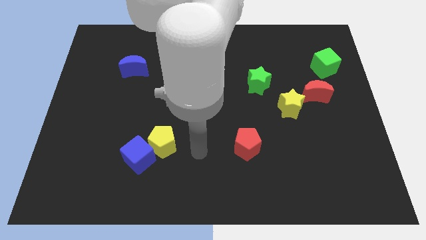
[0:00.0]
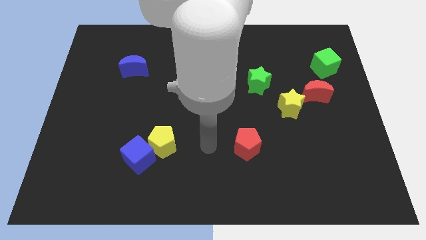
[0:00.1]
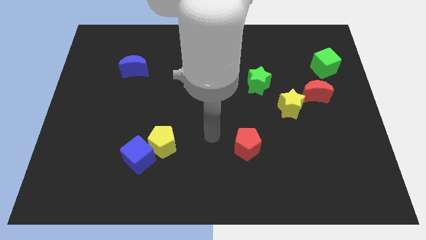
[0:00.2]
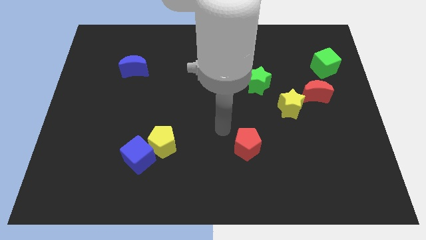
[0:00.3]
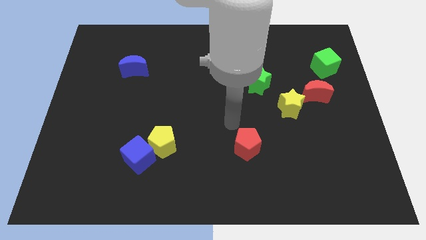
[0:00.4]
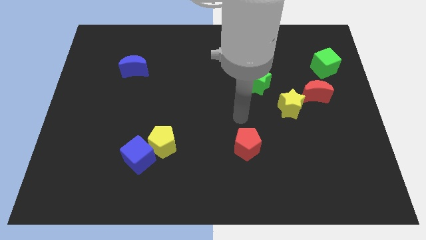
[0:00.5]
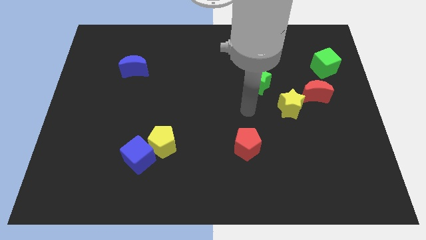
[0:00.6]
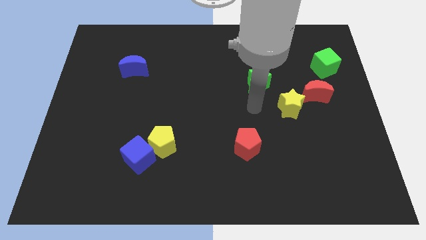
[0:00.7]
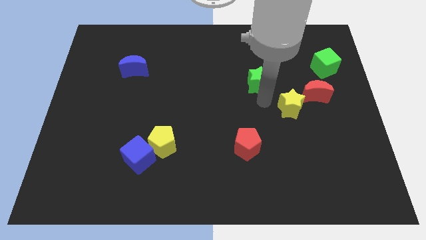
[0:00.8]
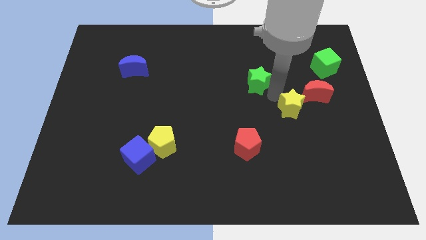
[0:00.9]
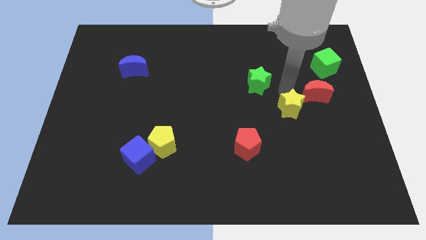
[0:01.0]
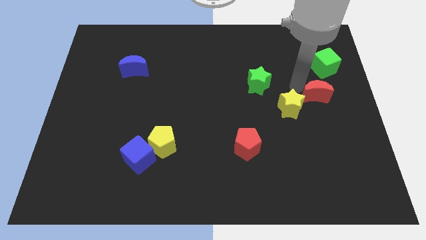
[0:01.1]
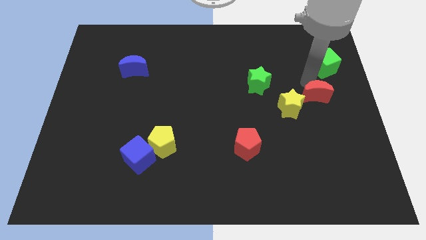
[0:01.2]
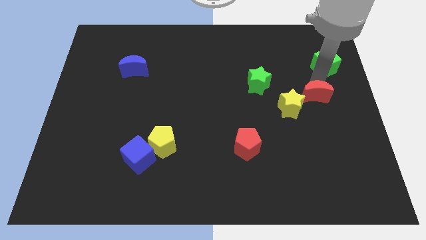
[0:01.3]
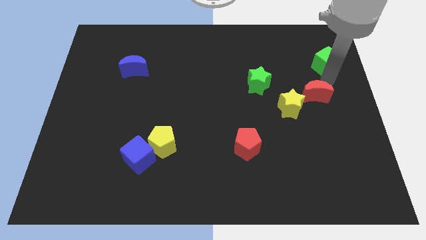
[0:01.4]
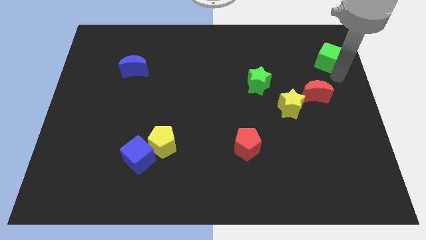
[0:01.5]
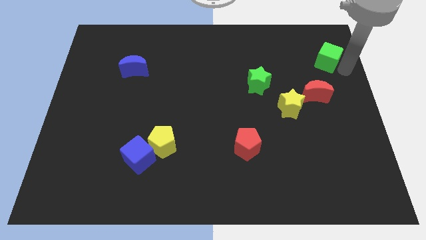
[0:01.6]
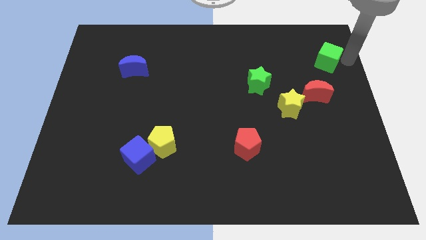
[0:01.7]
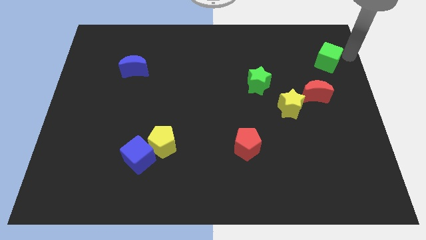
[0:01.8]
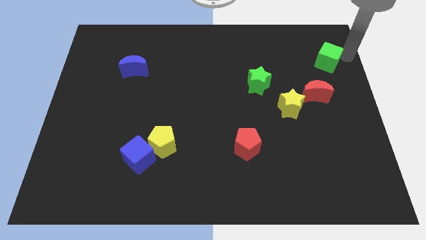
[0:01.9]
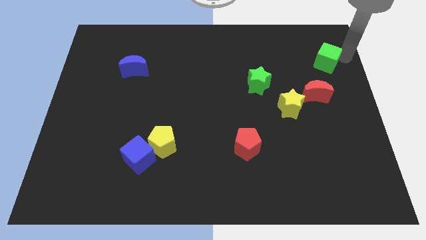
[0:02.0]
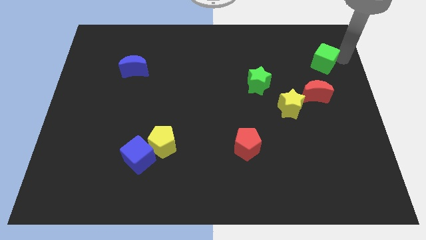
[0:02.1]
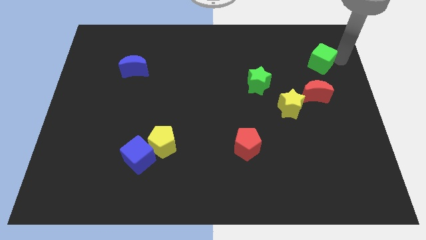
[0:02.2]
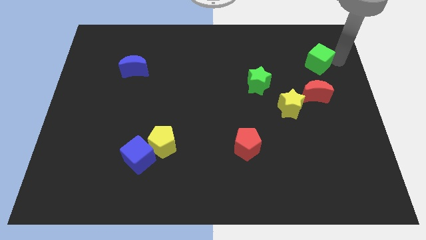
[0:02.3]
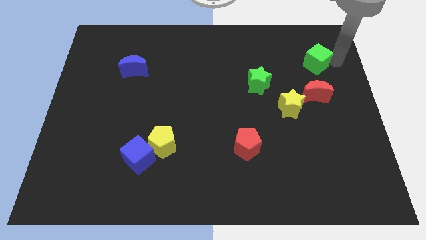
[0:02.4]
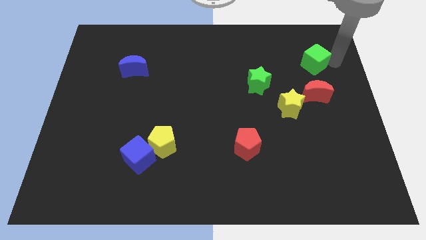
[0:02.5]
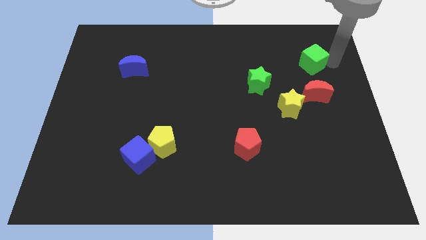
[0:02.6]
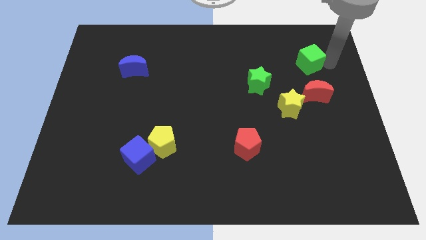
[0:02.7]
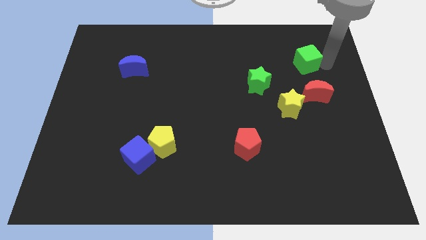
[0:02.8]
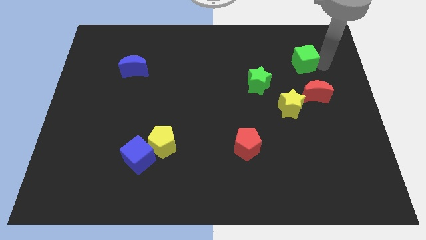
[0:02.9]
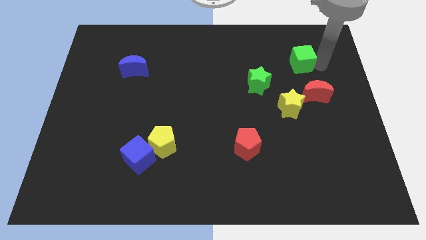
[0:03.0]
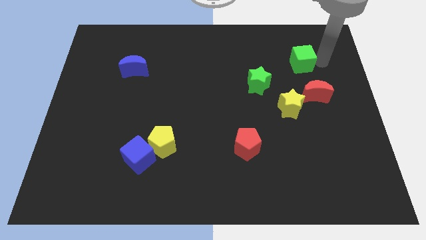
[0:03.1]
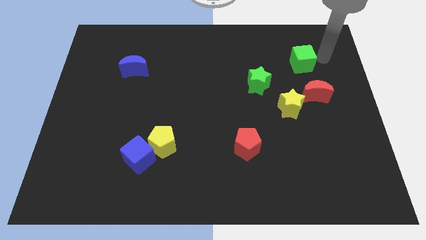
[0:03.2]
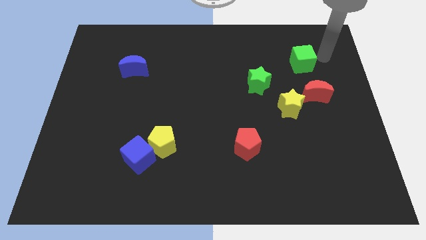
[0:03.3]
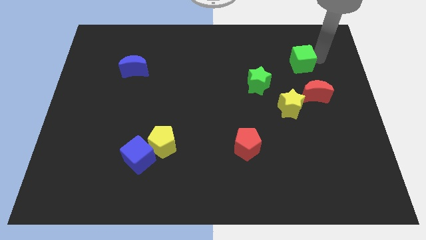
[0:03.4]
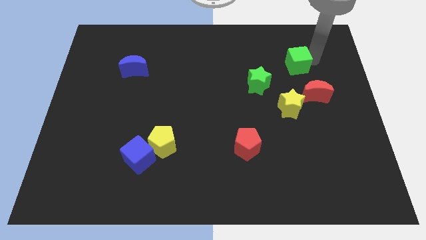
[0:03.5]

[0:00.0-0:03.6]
slightly slide the green cube to the left

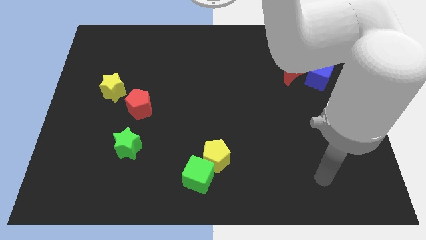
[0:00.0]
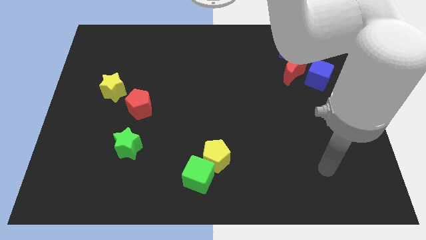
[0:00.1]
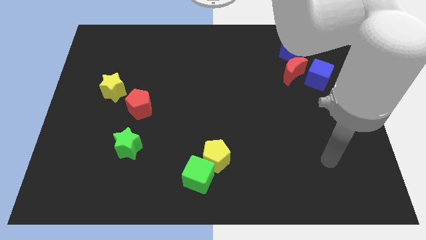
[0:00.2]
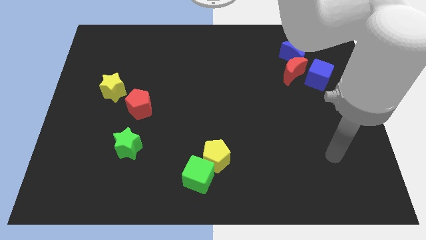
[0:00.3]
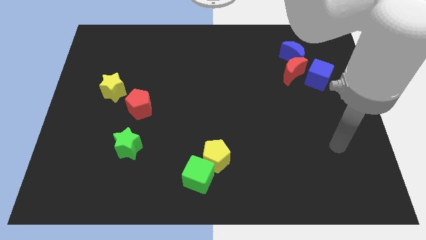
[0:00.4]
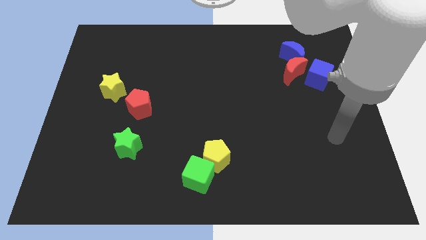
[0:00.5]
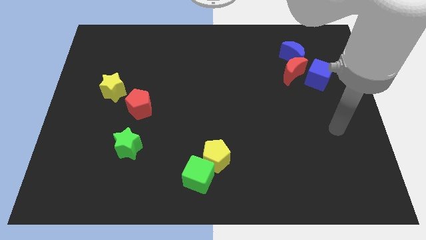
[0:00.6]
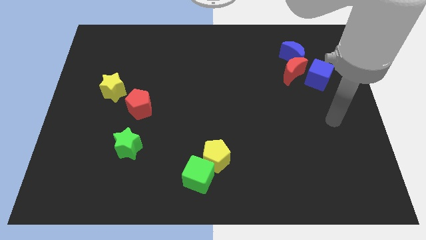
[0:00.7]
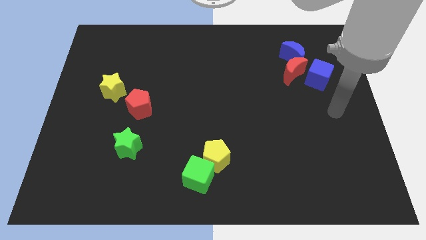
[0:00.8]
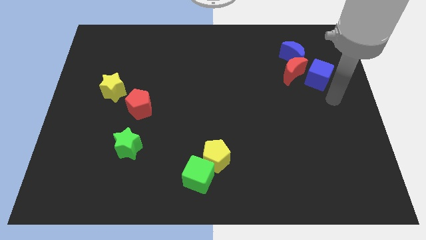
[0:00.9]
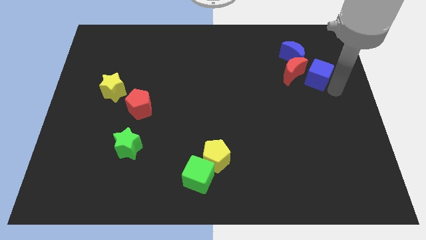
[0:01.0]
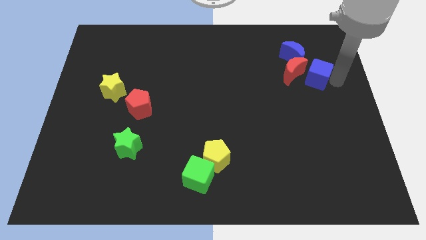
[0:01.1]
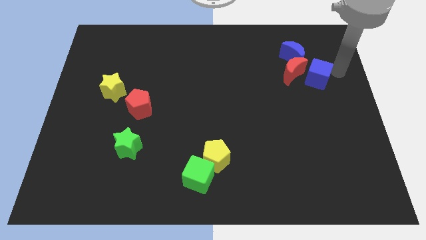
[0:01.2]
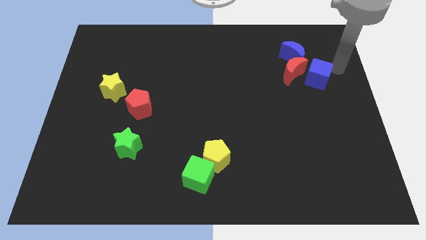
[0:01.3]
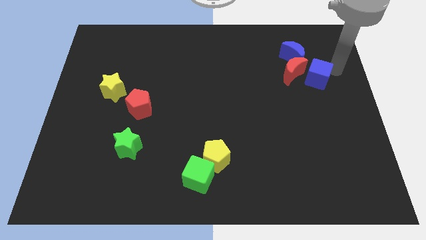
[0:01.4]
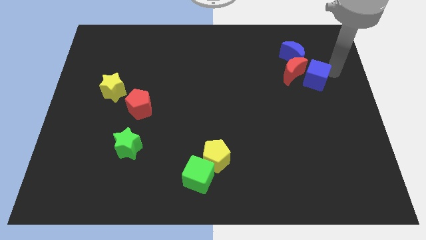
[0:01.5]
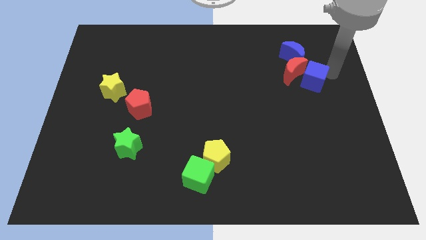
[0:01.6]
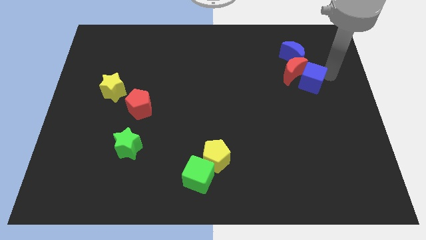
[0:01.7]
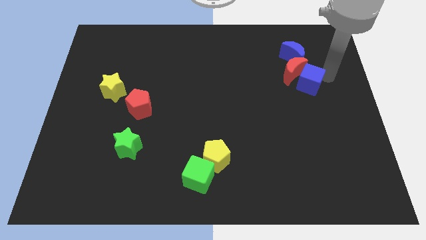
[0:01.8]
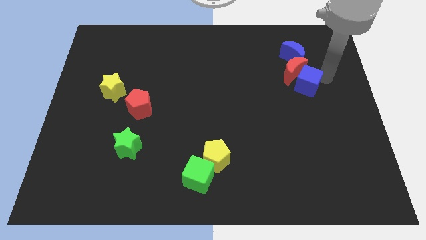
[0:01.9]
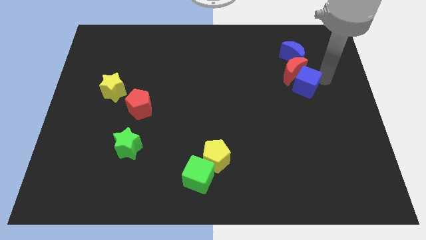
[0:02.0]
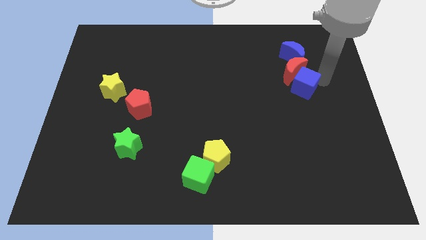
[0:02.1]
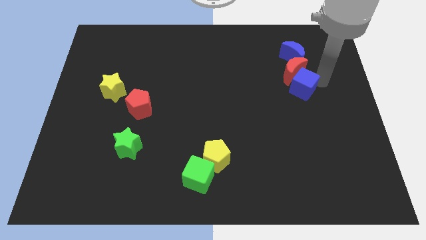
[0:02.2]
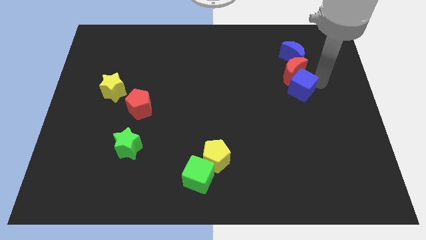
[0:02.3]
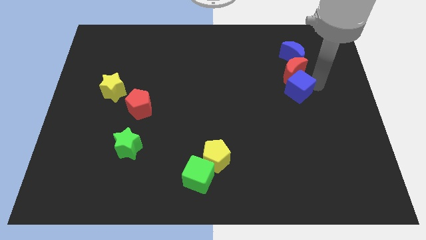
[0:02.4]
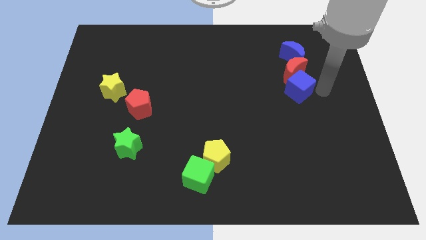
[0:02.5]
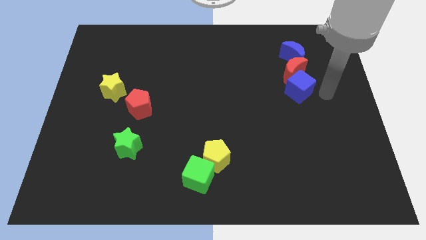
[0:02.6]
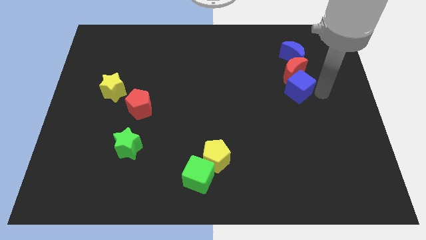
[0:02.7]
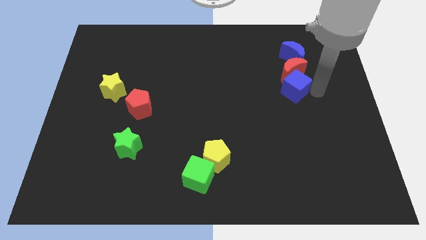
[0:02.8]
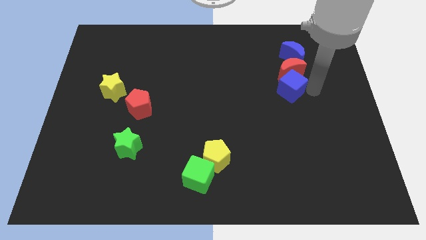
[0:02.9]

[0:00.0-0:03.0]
slightly move the blue cube left

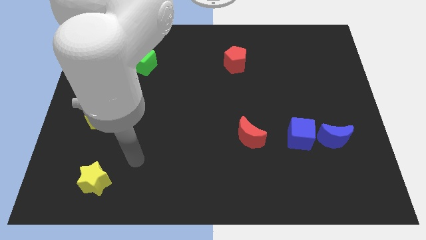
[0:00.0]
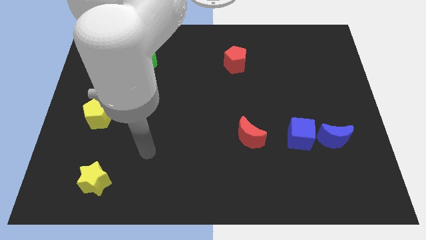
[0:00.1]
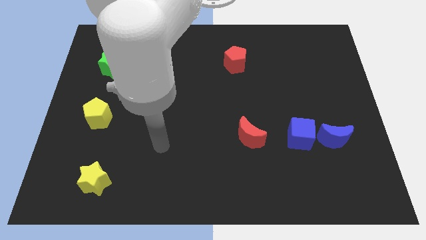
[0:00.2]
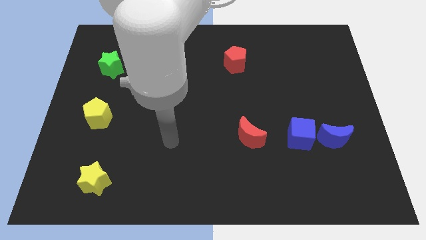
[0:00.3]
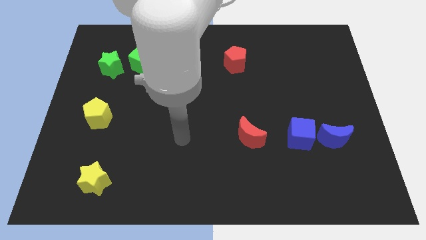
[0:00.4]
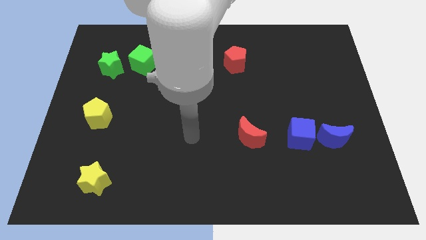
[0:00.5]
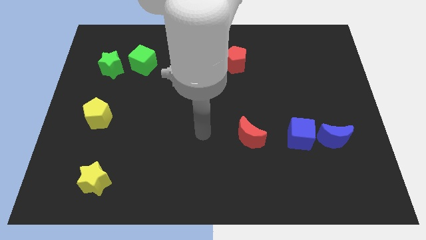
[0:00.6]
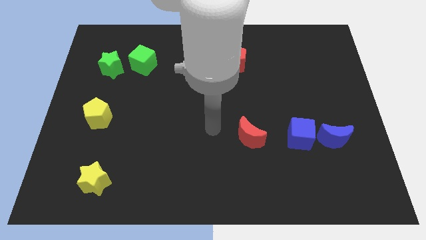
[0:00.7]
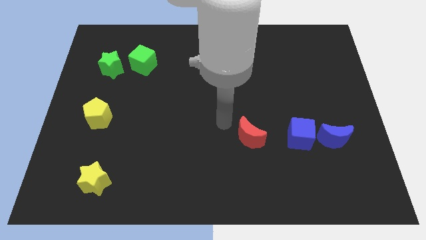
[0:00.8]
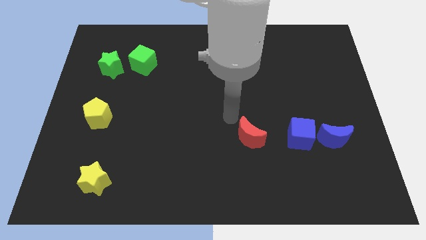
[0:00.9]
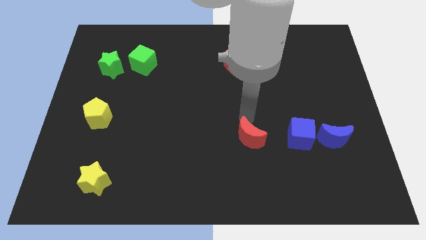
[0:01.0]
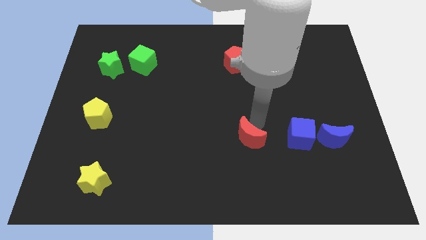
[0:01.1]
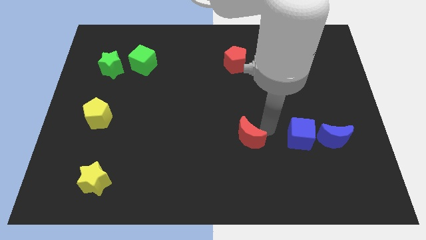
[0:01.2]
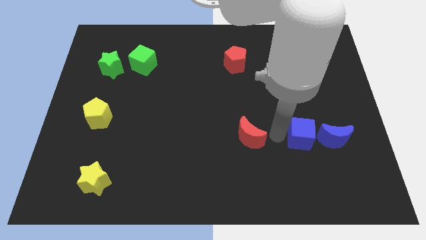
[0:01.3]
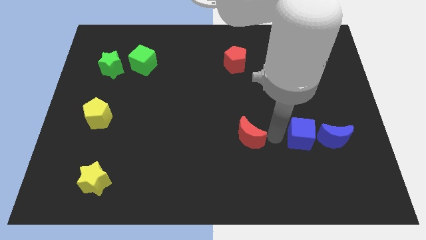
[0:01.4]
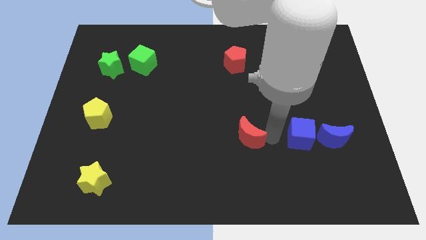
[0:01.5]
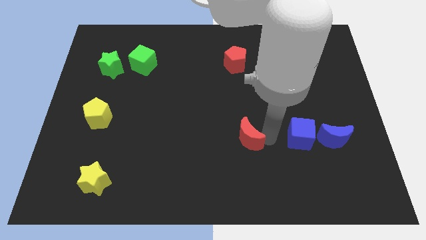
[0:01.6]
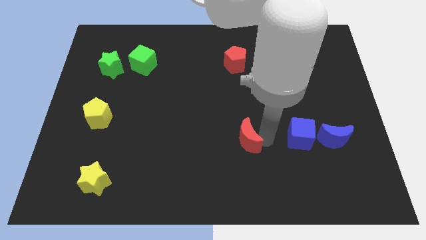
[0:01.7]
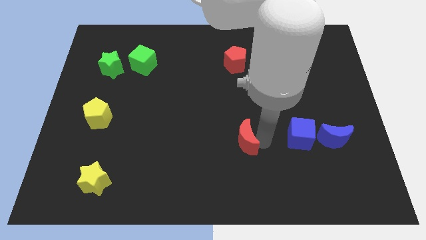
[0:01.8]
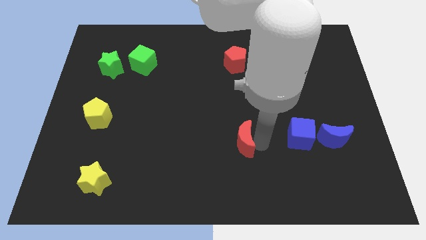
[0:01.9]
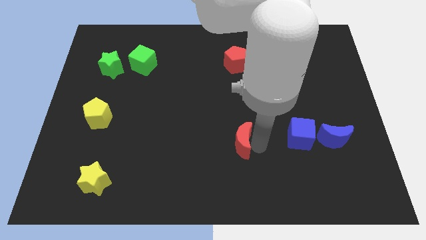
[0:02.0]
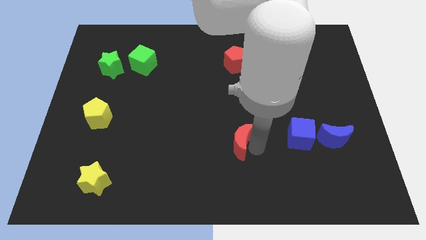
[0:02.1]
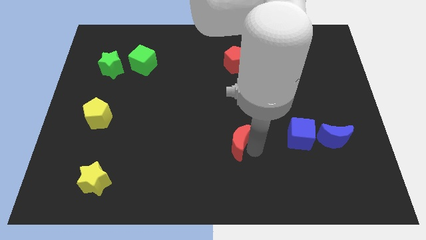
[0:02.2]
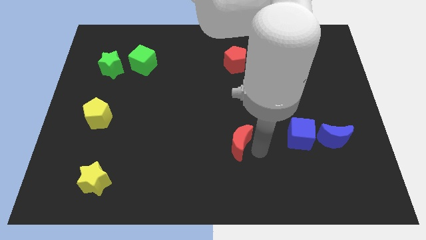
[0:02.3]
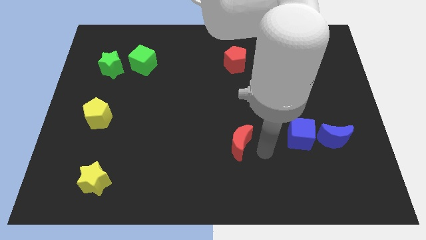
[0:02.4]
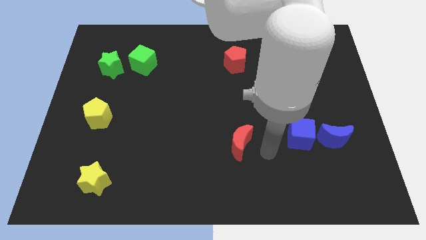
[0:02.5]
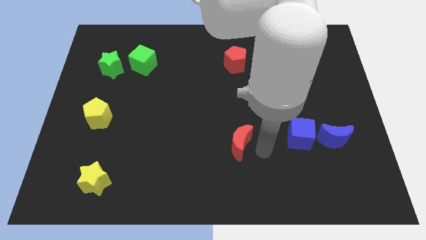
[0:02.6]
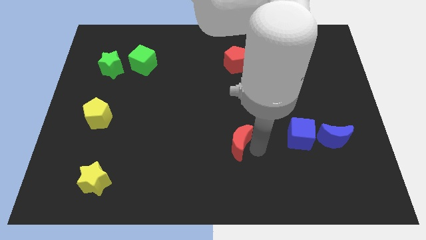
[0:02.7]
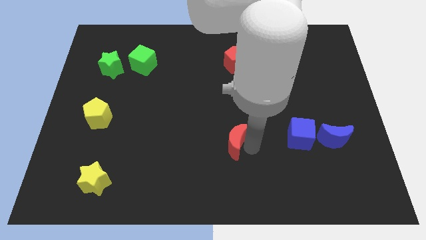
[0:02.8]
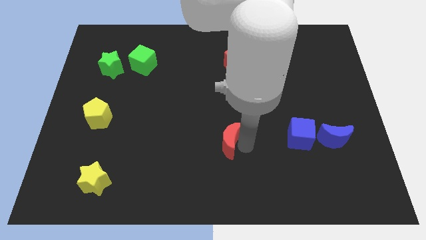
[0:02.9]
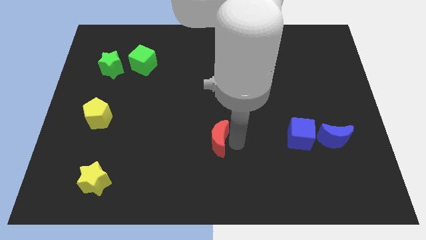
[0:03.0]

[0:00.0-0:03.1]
push the red moon a bit left
